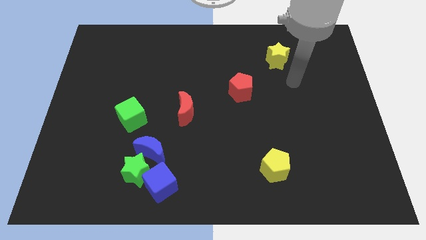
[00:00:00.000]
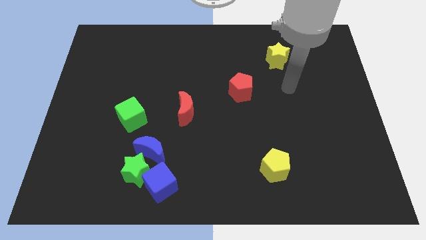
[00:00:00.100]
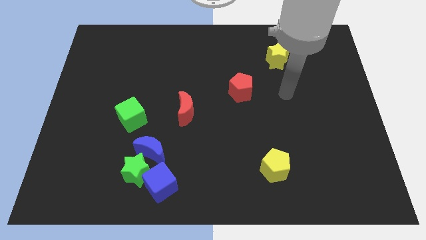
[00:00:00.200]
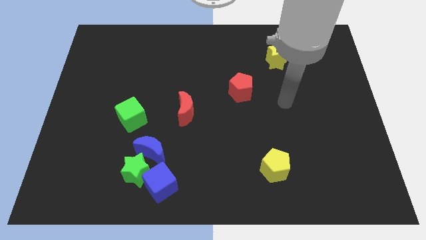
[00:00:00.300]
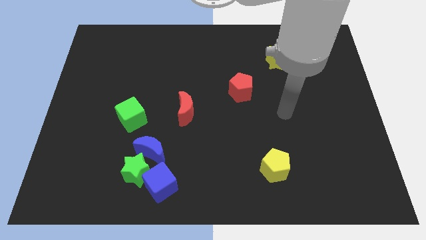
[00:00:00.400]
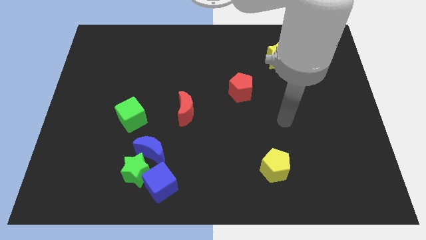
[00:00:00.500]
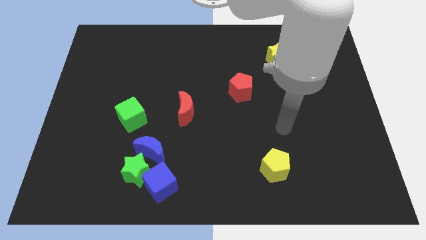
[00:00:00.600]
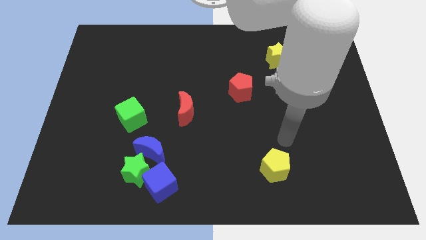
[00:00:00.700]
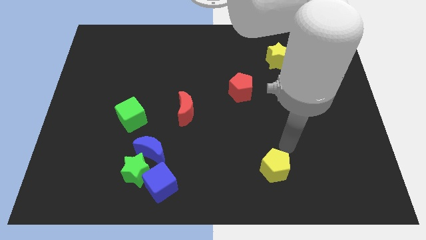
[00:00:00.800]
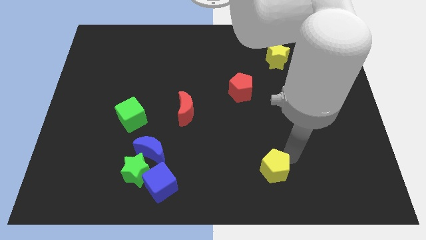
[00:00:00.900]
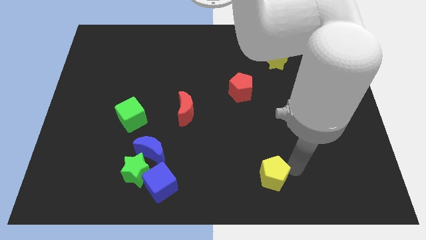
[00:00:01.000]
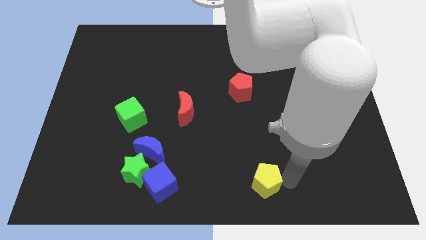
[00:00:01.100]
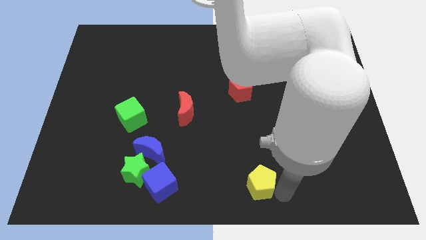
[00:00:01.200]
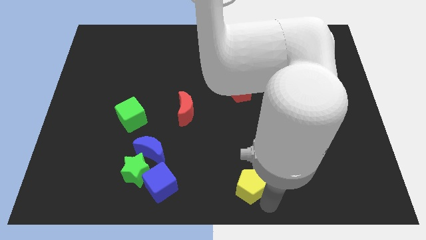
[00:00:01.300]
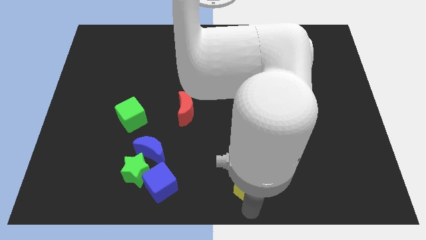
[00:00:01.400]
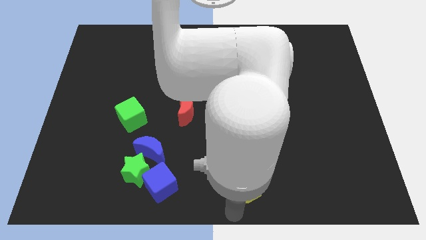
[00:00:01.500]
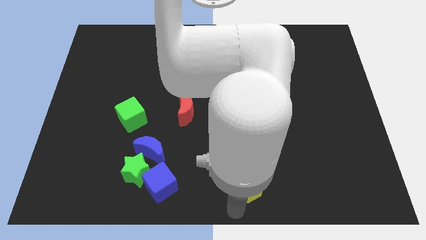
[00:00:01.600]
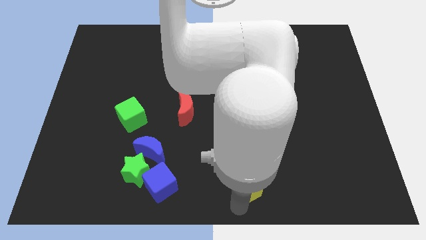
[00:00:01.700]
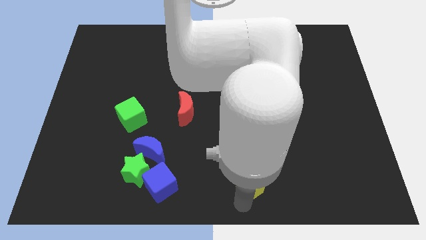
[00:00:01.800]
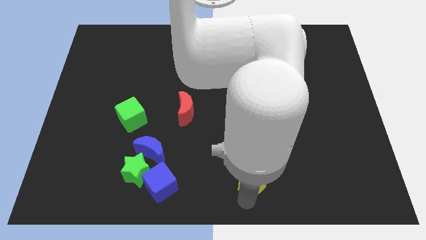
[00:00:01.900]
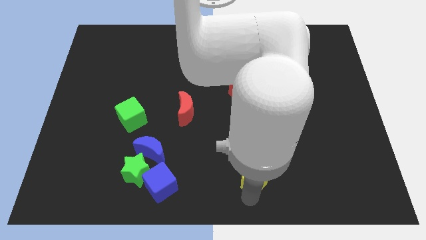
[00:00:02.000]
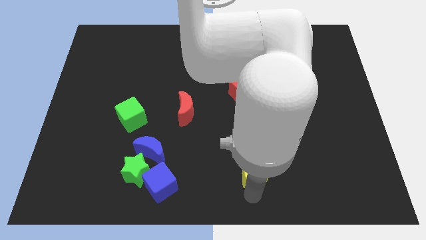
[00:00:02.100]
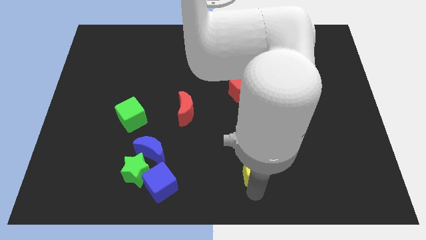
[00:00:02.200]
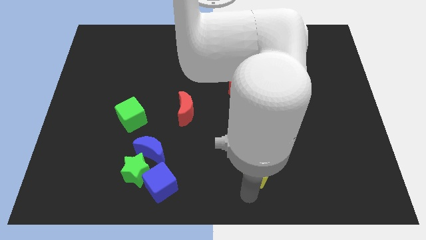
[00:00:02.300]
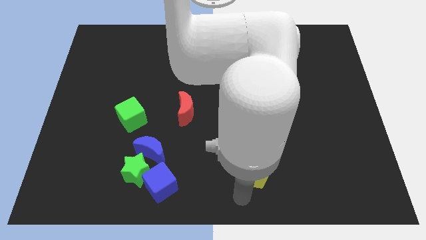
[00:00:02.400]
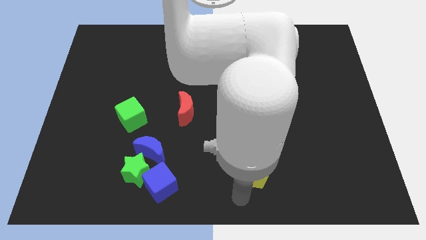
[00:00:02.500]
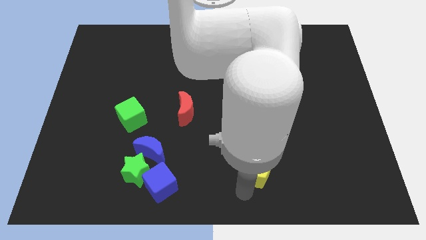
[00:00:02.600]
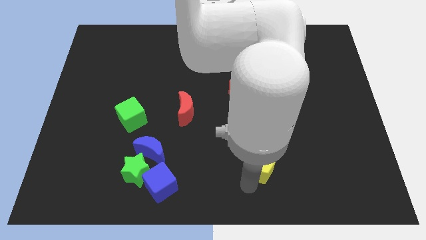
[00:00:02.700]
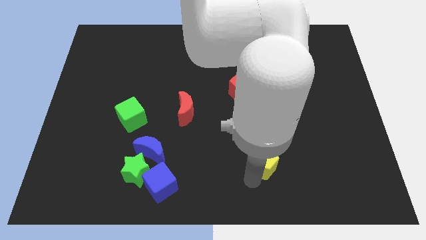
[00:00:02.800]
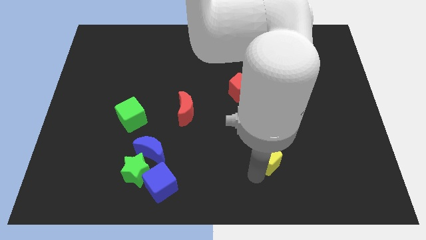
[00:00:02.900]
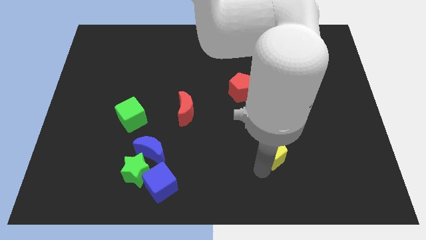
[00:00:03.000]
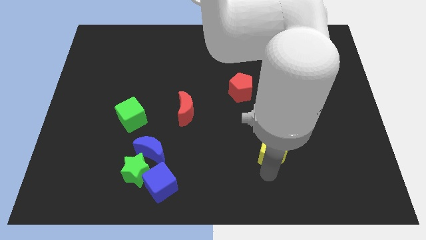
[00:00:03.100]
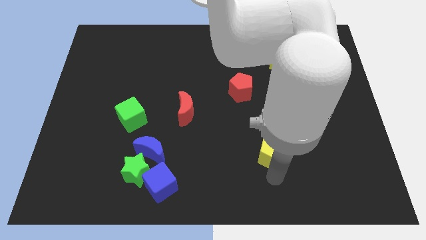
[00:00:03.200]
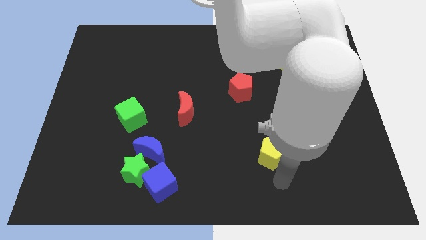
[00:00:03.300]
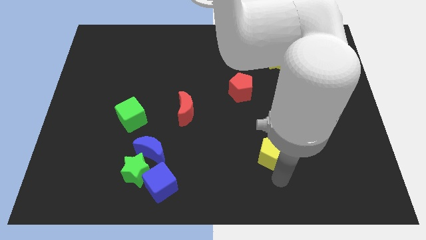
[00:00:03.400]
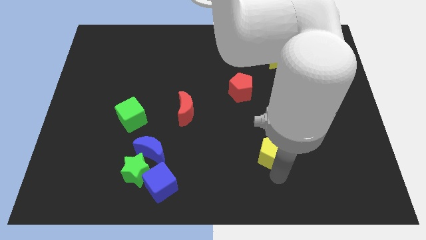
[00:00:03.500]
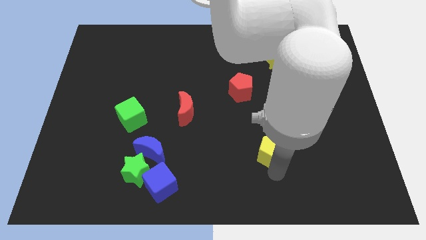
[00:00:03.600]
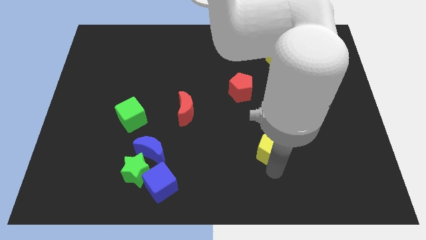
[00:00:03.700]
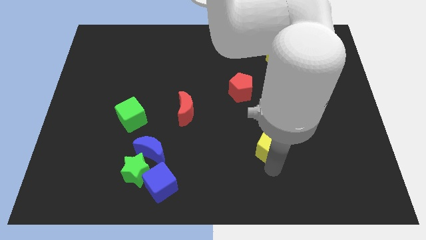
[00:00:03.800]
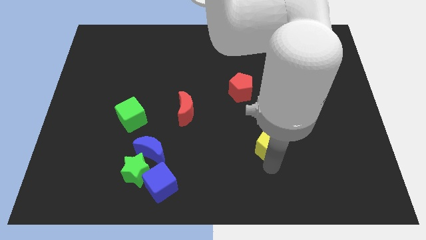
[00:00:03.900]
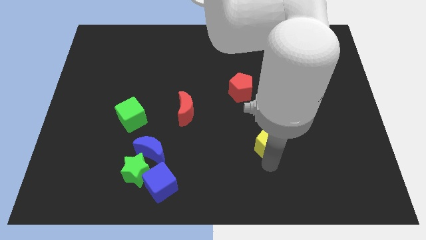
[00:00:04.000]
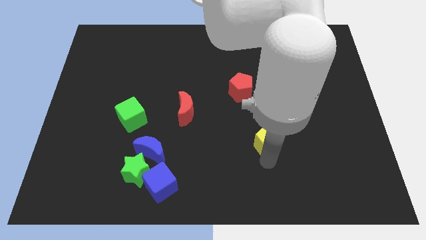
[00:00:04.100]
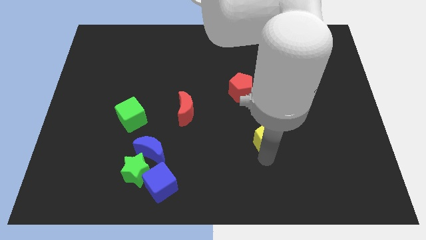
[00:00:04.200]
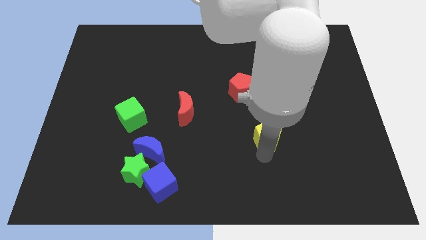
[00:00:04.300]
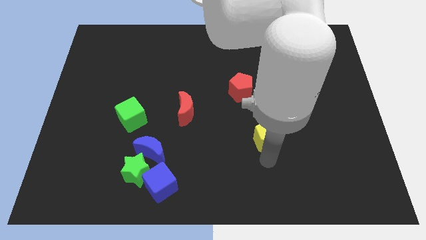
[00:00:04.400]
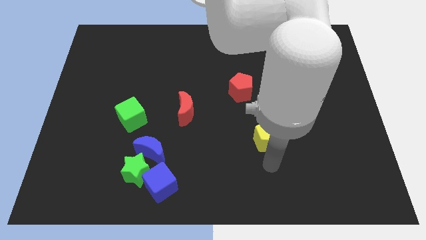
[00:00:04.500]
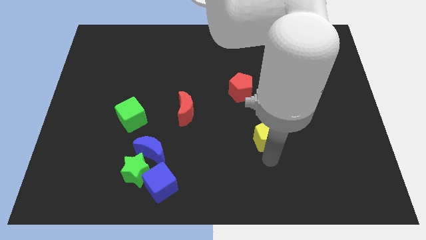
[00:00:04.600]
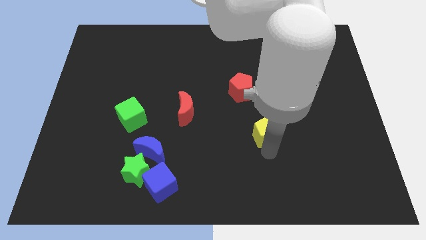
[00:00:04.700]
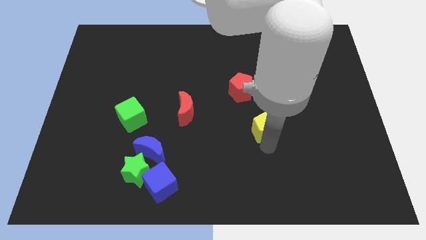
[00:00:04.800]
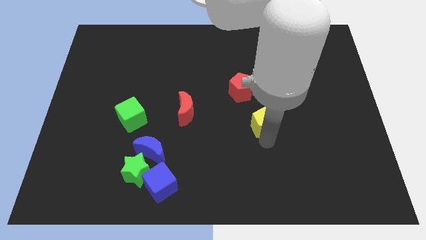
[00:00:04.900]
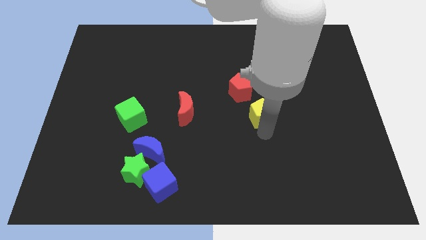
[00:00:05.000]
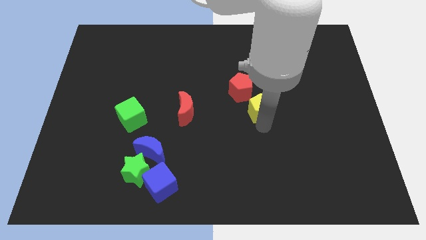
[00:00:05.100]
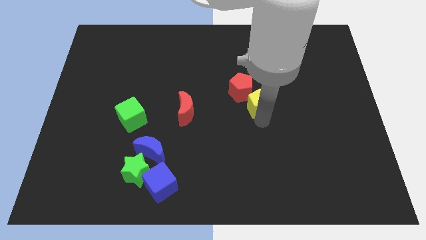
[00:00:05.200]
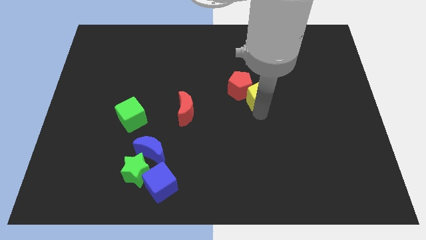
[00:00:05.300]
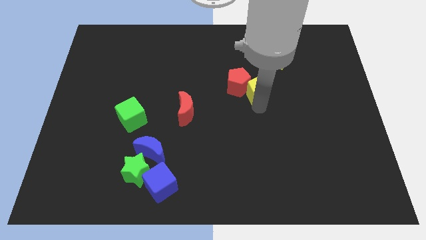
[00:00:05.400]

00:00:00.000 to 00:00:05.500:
push the yellow pentagon upwards

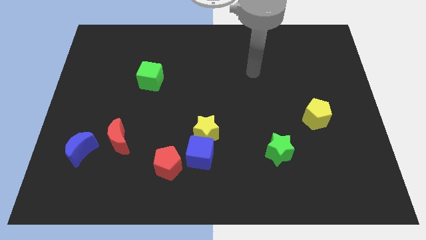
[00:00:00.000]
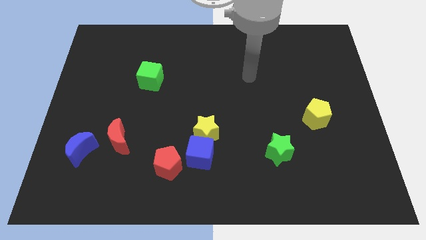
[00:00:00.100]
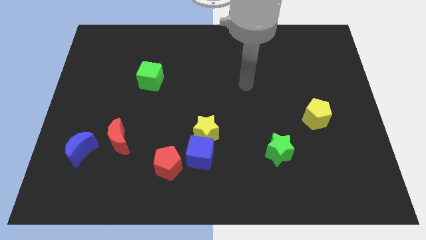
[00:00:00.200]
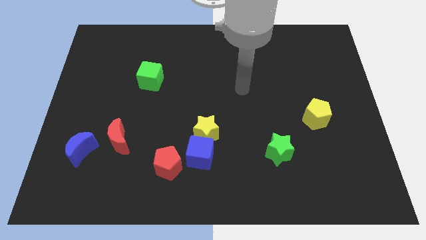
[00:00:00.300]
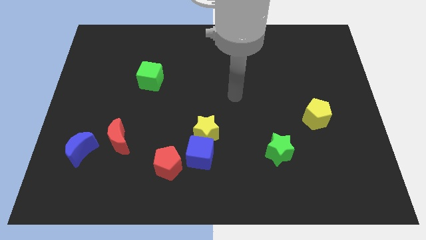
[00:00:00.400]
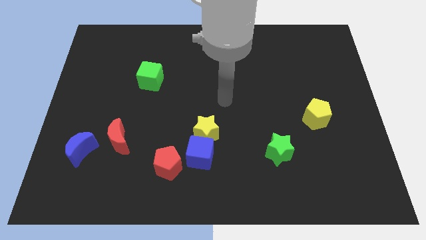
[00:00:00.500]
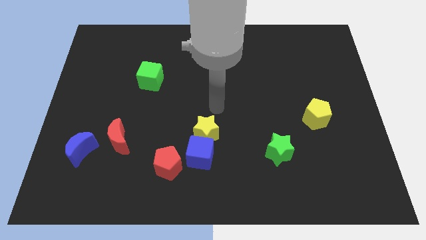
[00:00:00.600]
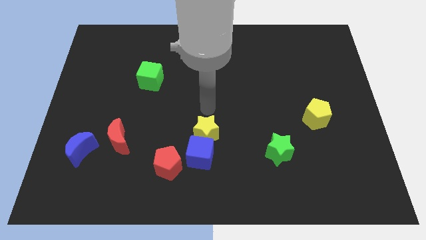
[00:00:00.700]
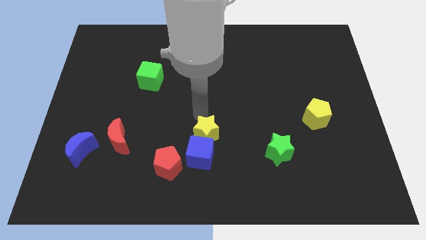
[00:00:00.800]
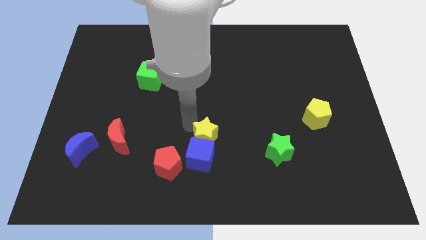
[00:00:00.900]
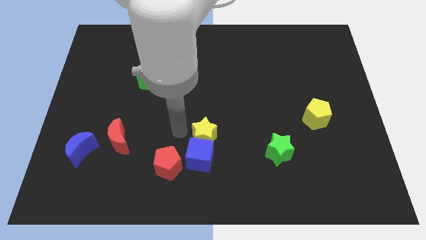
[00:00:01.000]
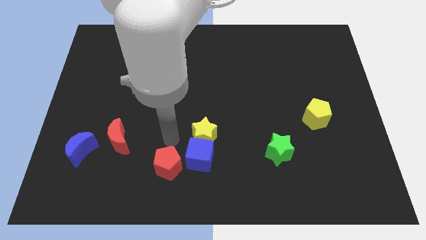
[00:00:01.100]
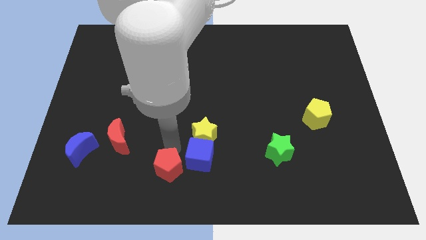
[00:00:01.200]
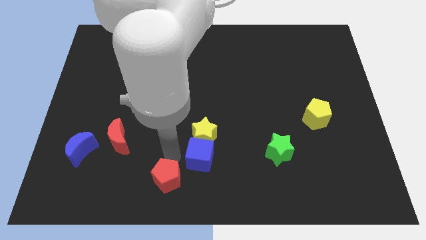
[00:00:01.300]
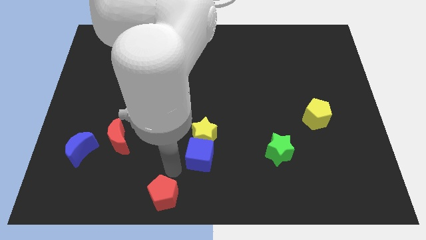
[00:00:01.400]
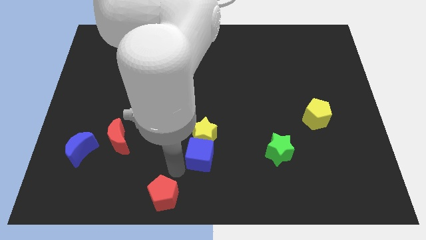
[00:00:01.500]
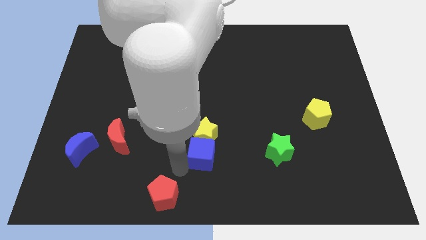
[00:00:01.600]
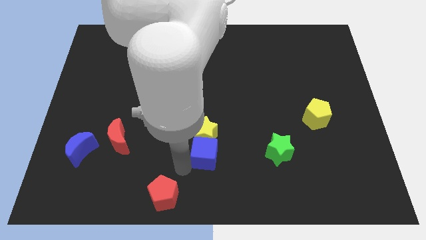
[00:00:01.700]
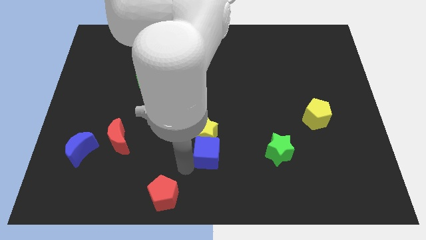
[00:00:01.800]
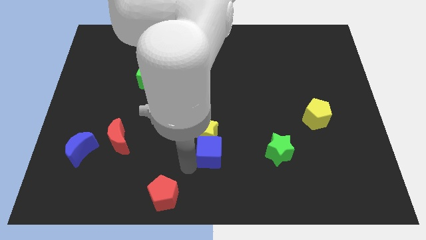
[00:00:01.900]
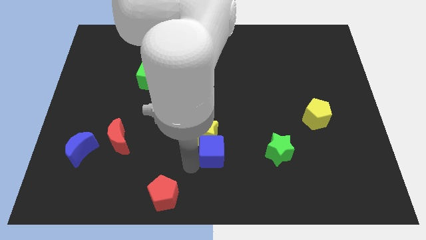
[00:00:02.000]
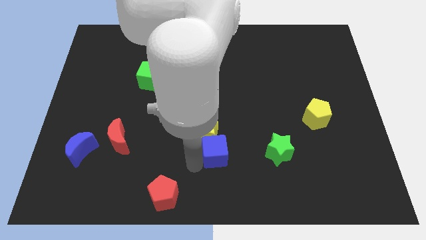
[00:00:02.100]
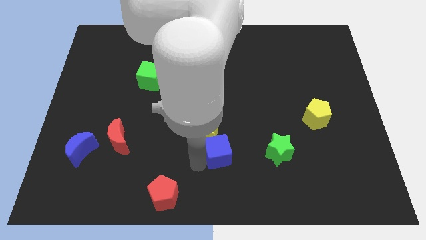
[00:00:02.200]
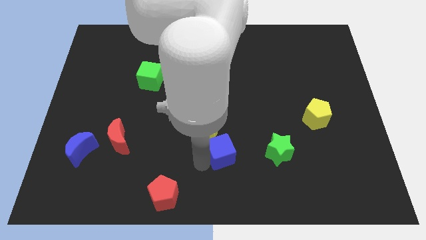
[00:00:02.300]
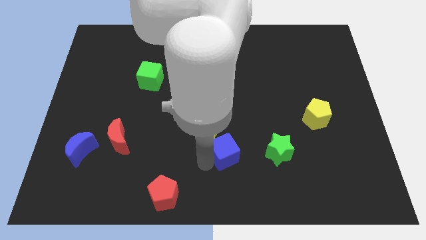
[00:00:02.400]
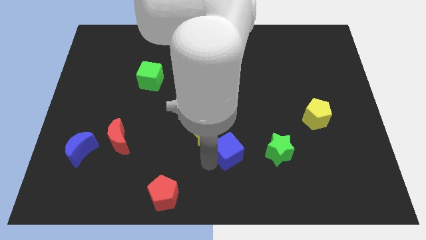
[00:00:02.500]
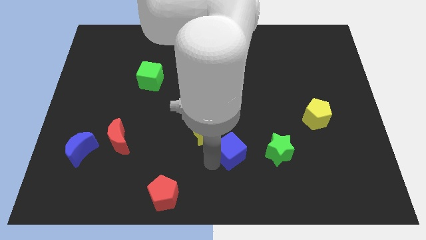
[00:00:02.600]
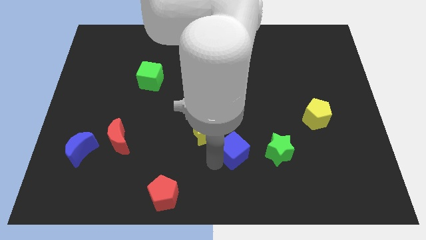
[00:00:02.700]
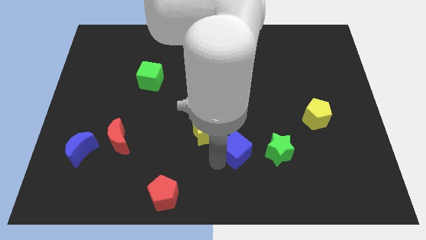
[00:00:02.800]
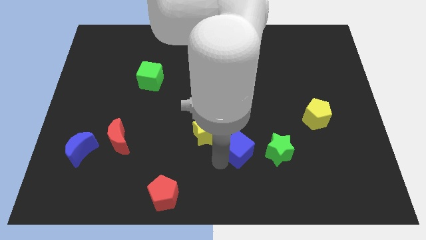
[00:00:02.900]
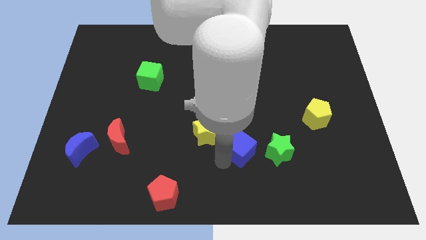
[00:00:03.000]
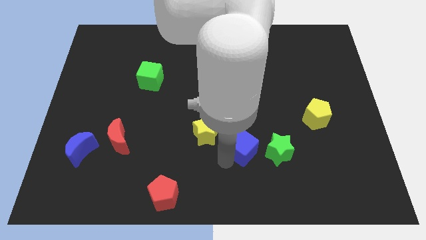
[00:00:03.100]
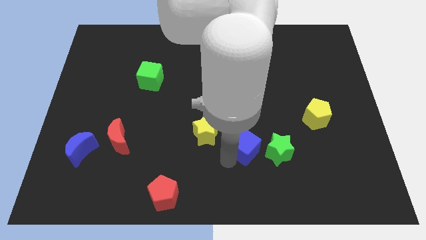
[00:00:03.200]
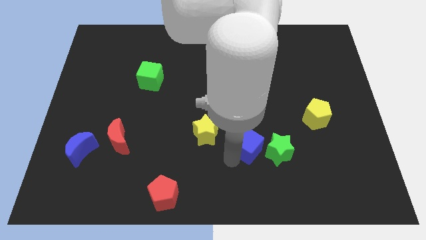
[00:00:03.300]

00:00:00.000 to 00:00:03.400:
push the blue cube diagonally up and right somewhat
